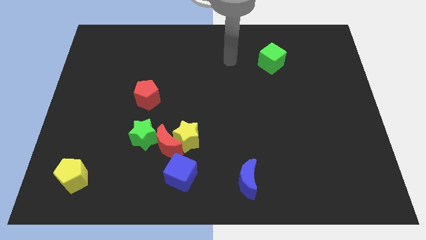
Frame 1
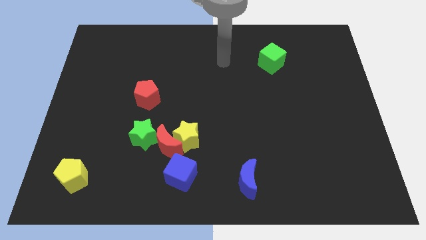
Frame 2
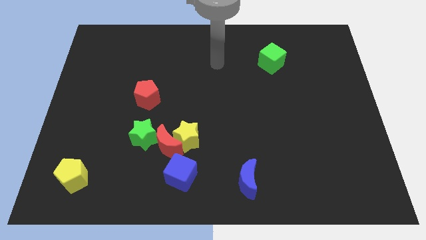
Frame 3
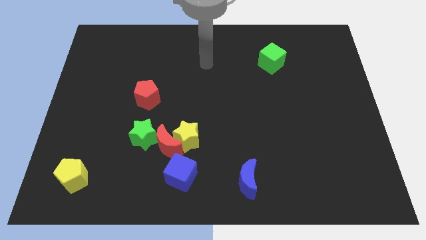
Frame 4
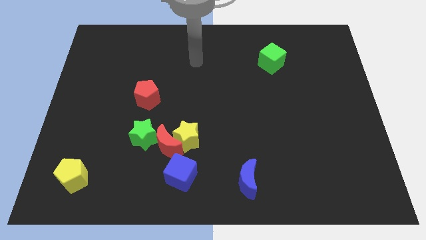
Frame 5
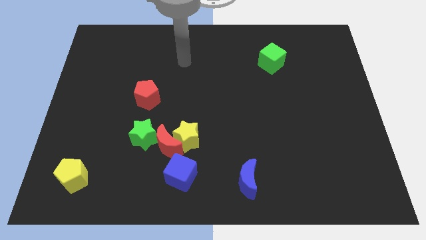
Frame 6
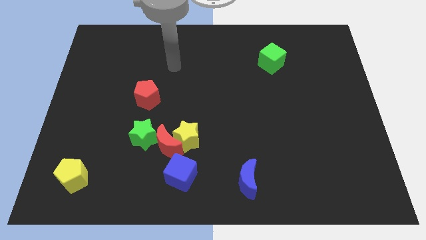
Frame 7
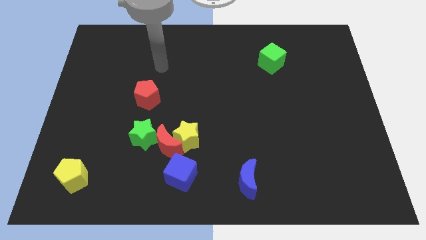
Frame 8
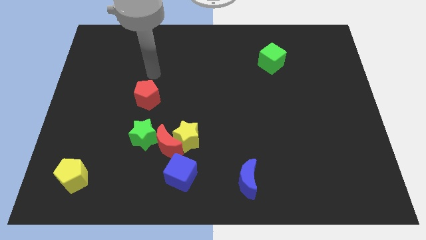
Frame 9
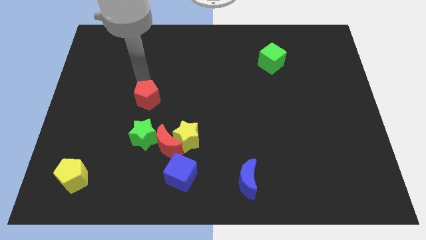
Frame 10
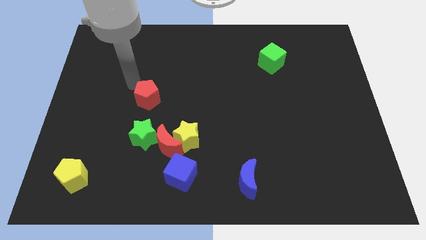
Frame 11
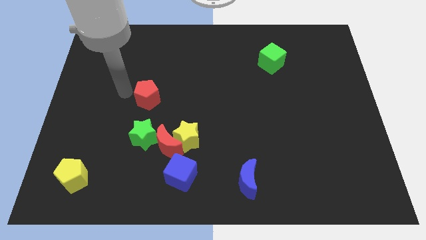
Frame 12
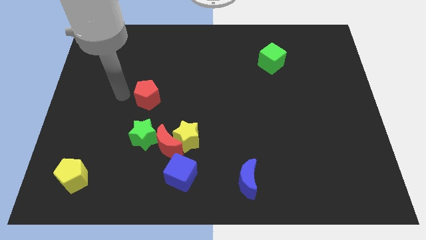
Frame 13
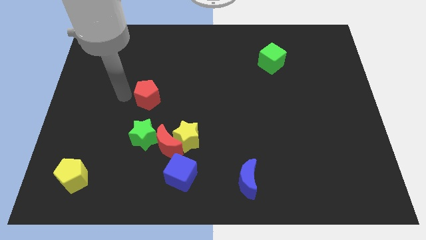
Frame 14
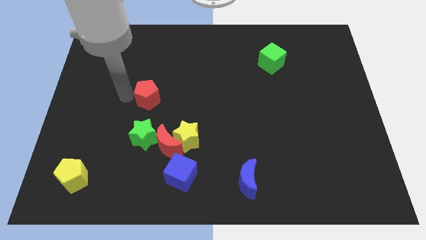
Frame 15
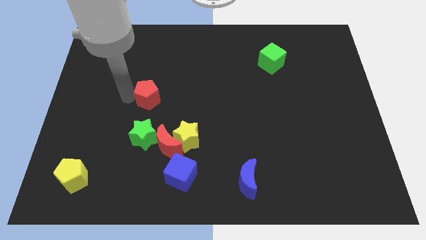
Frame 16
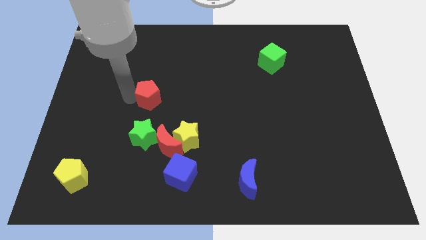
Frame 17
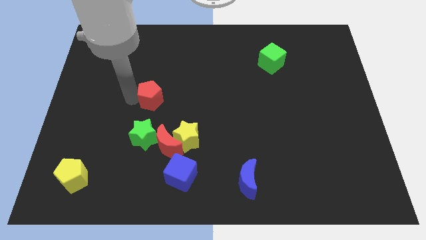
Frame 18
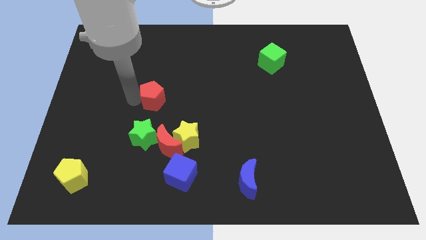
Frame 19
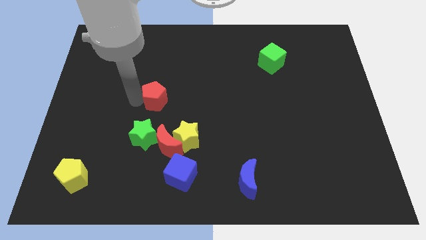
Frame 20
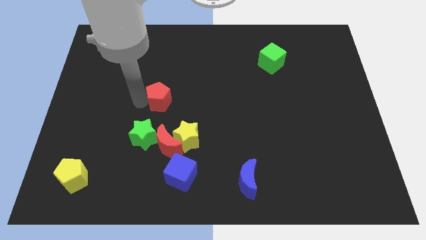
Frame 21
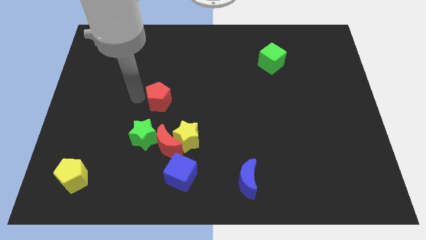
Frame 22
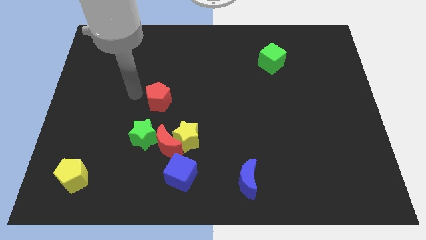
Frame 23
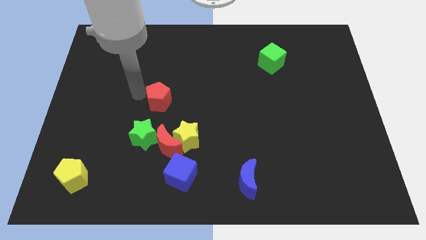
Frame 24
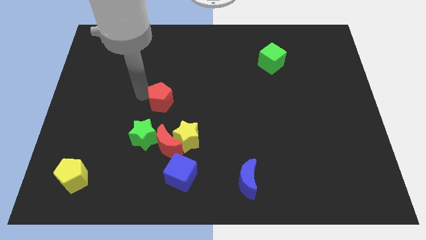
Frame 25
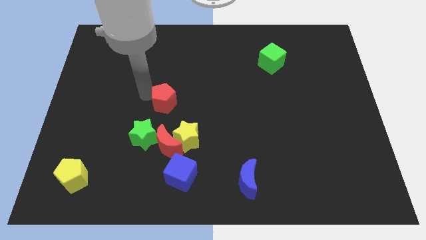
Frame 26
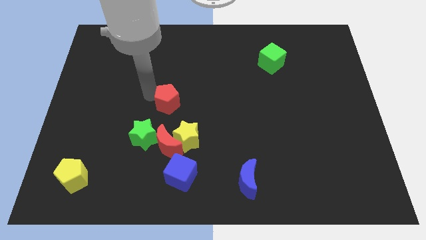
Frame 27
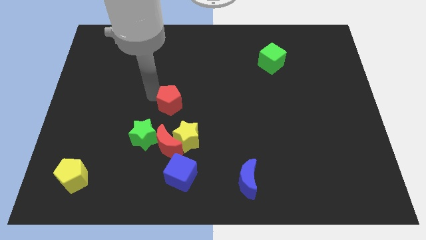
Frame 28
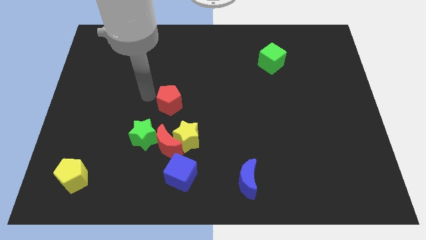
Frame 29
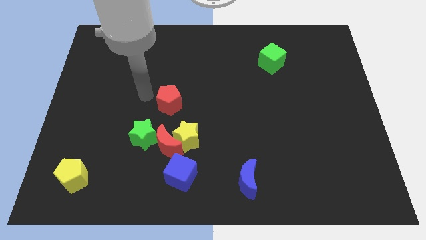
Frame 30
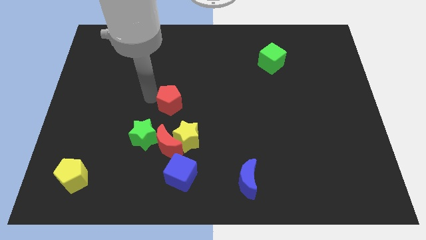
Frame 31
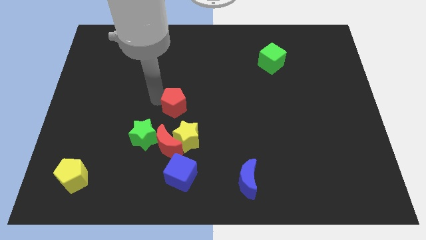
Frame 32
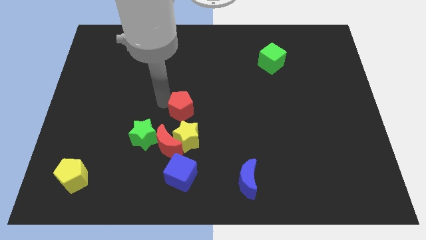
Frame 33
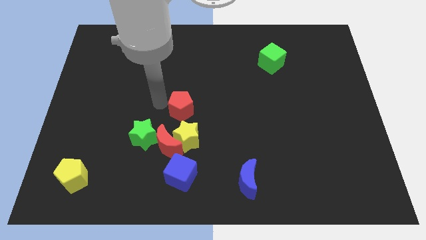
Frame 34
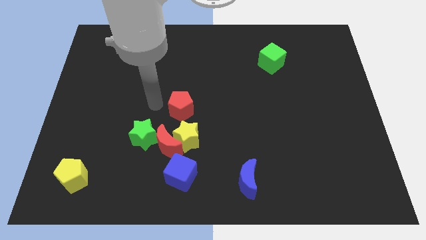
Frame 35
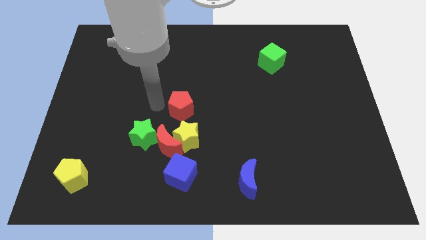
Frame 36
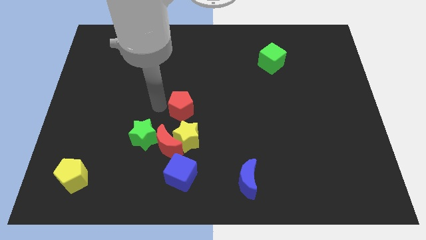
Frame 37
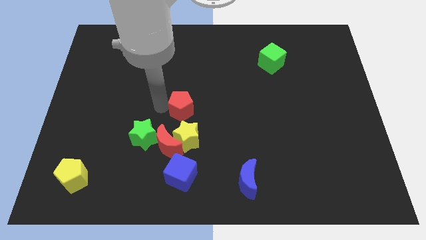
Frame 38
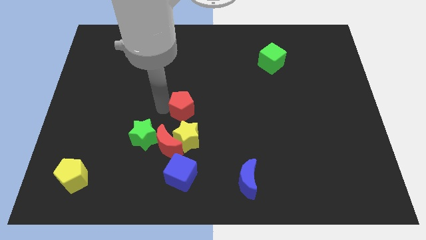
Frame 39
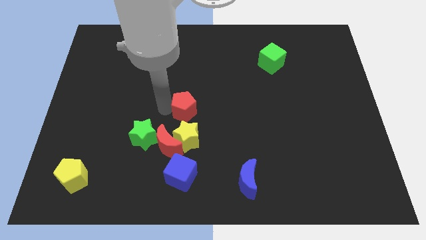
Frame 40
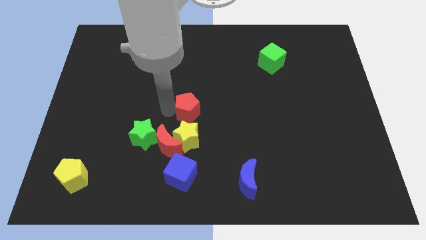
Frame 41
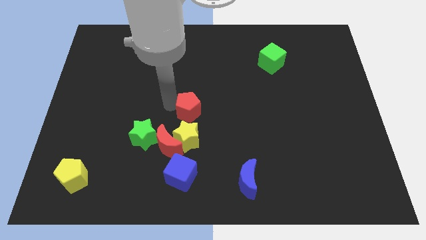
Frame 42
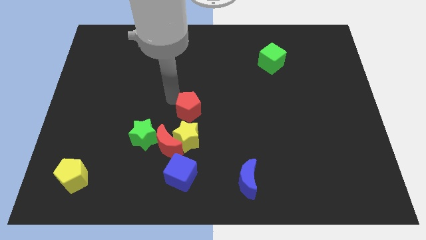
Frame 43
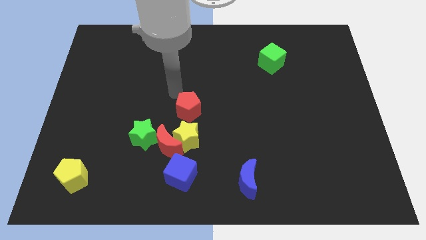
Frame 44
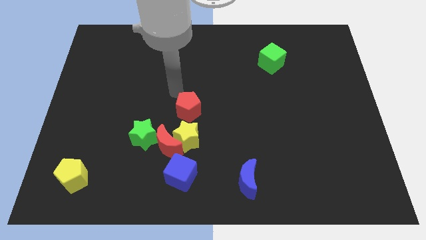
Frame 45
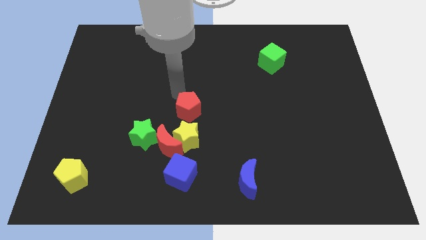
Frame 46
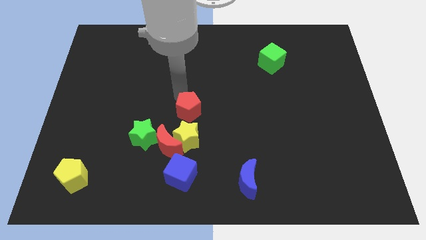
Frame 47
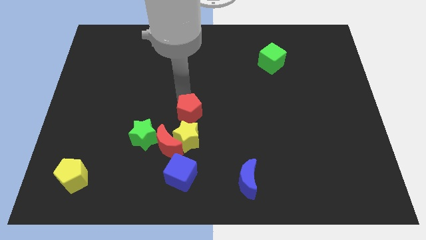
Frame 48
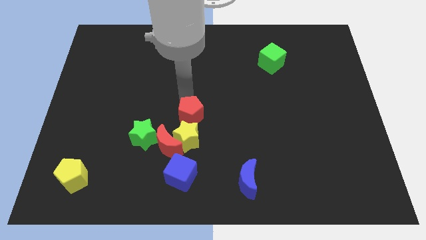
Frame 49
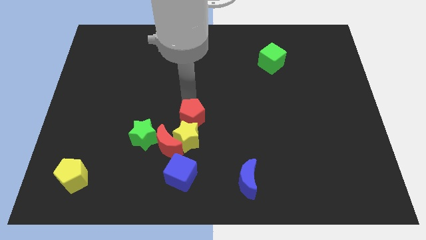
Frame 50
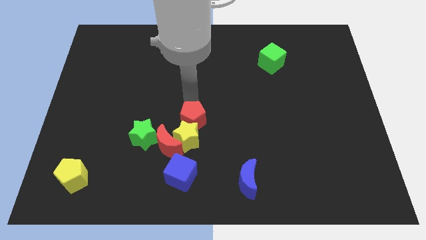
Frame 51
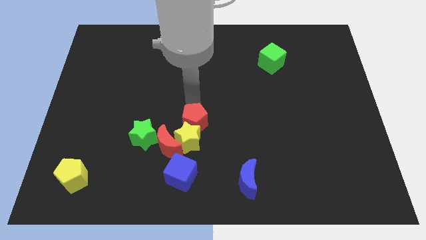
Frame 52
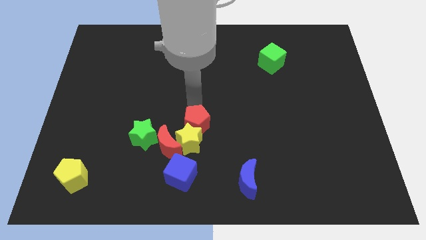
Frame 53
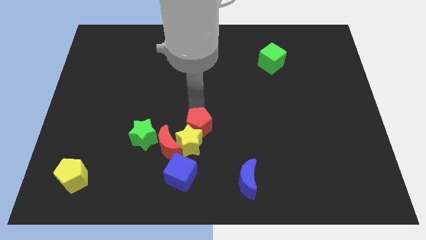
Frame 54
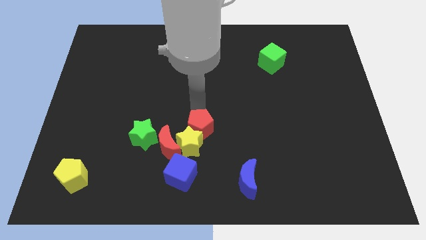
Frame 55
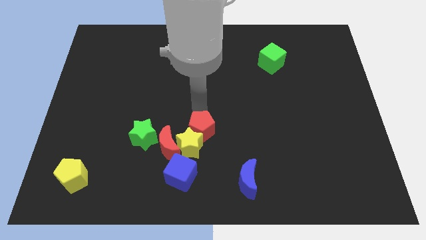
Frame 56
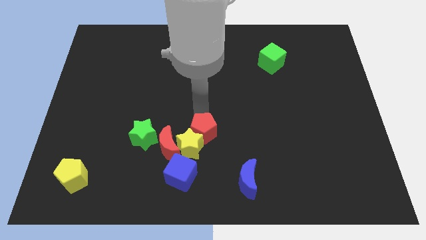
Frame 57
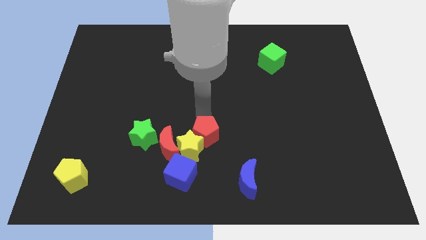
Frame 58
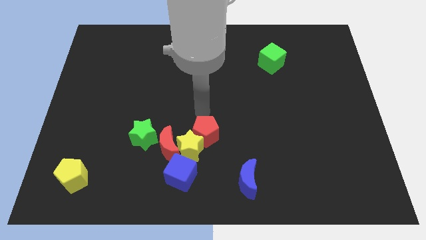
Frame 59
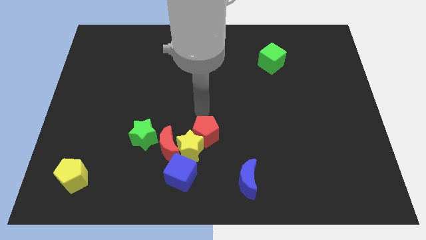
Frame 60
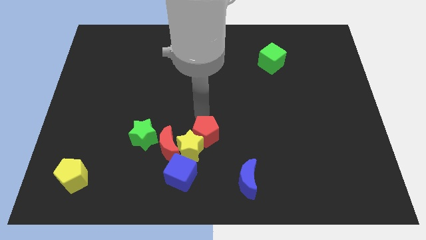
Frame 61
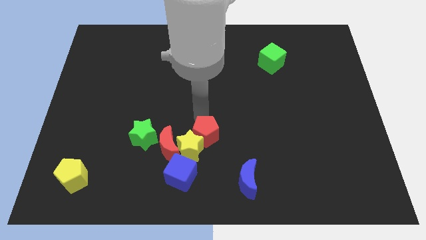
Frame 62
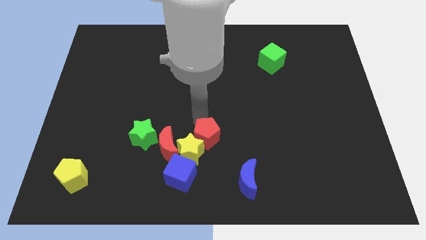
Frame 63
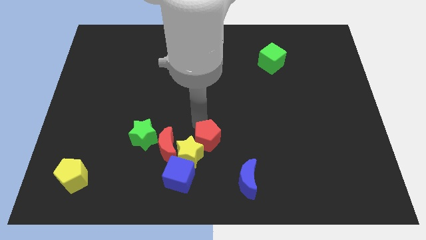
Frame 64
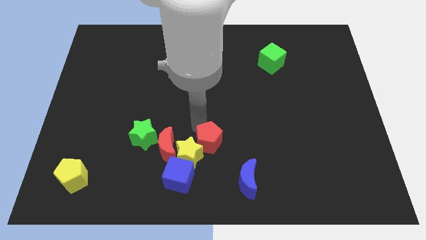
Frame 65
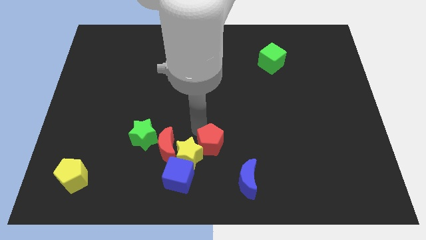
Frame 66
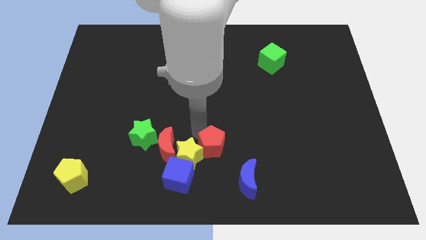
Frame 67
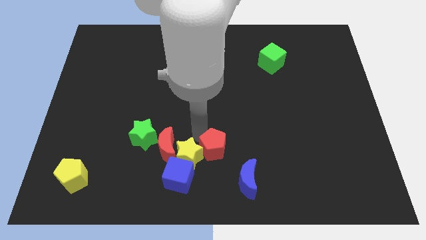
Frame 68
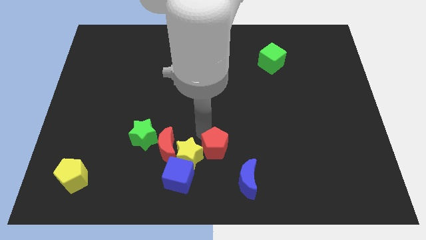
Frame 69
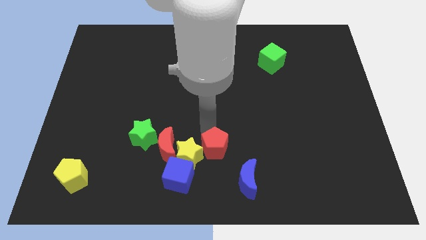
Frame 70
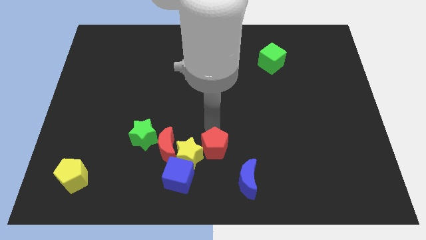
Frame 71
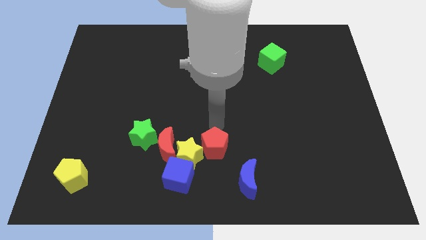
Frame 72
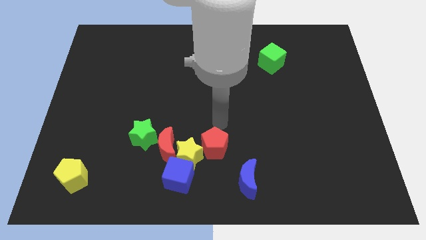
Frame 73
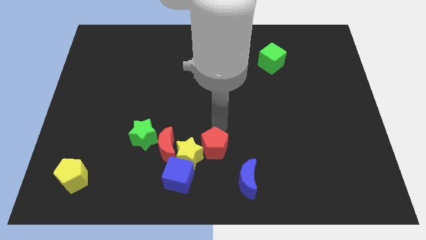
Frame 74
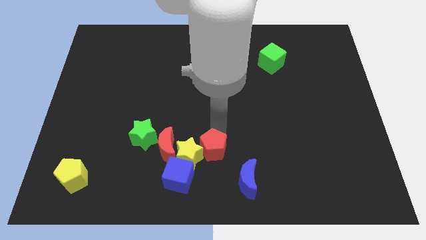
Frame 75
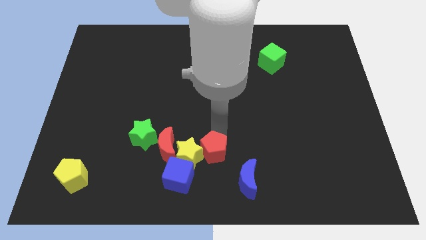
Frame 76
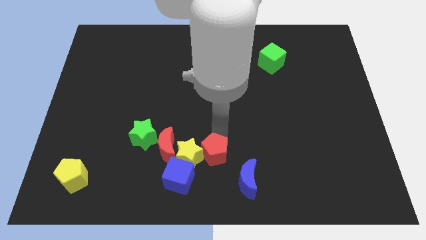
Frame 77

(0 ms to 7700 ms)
push the red pentagon to the bottom
